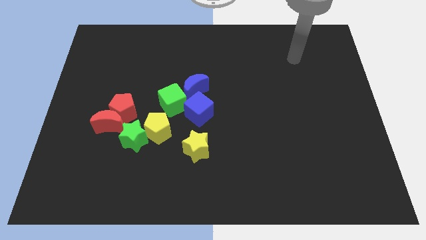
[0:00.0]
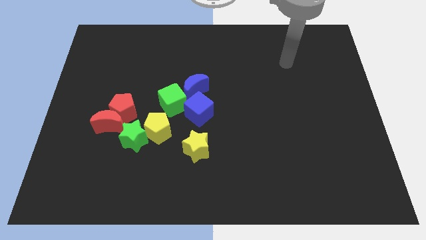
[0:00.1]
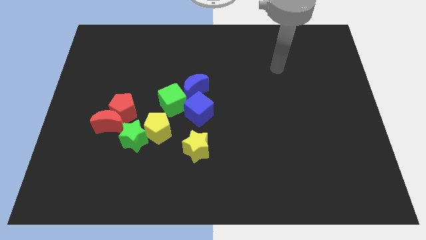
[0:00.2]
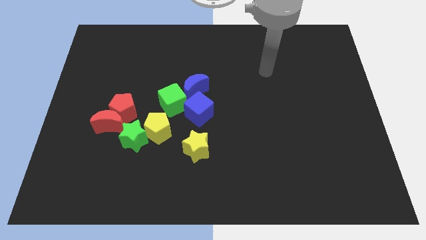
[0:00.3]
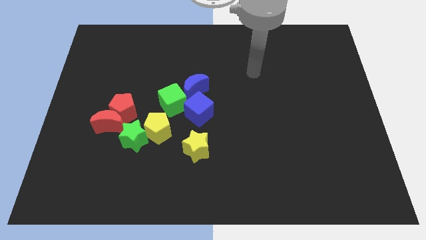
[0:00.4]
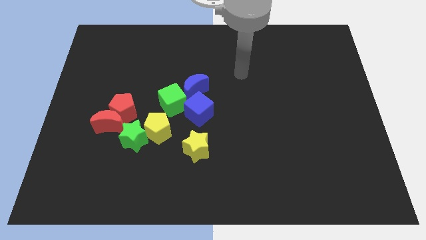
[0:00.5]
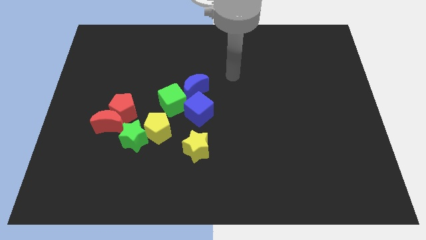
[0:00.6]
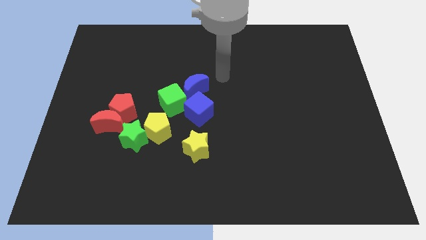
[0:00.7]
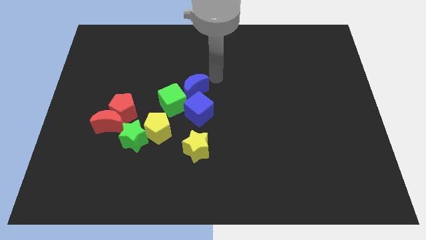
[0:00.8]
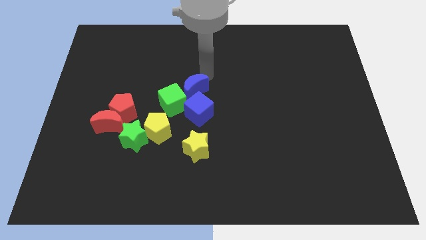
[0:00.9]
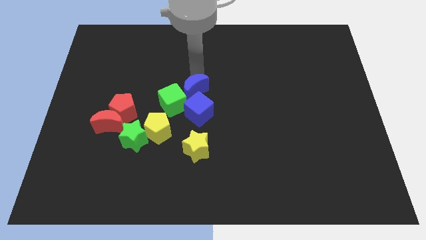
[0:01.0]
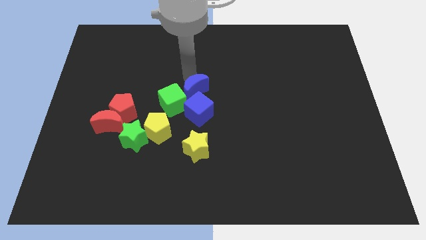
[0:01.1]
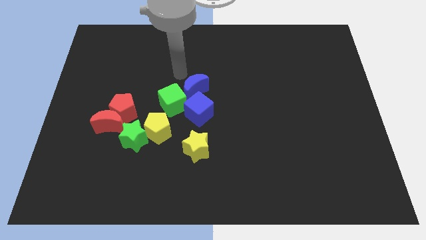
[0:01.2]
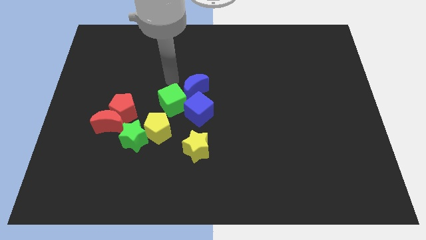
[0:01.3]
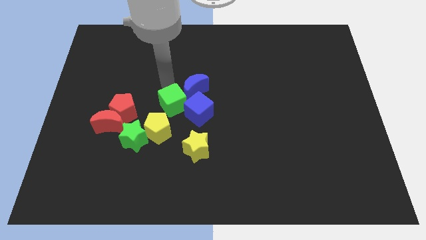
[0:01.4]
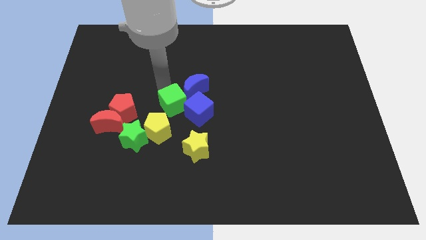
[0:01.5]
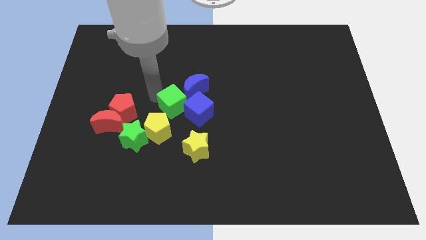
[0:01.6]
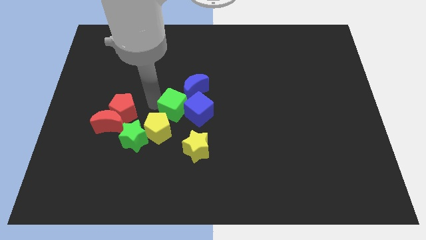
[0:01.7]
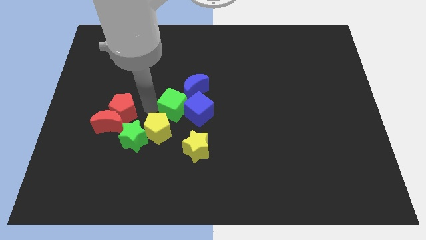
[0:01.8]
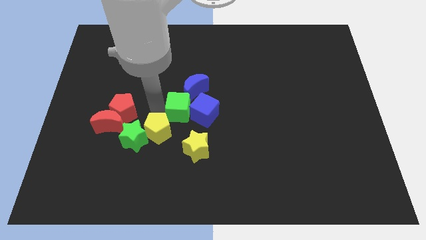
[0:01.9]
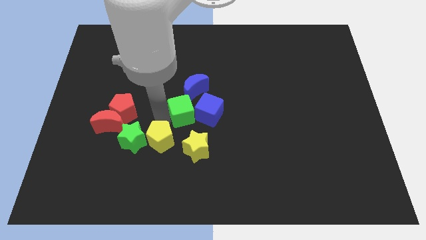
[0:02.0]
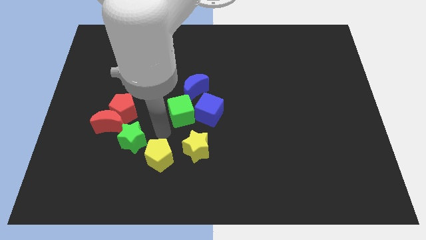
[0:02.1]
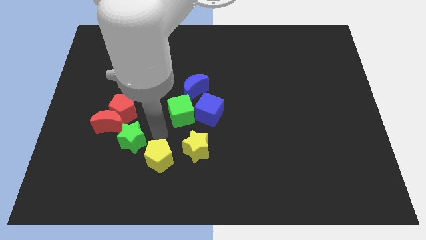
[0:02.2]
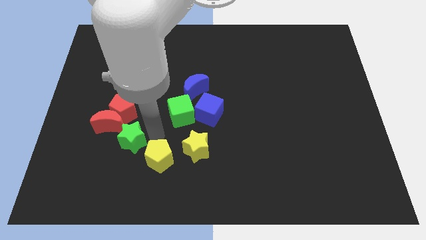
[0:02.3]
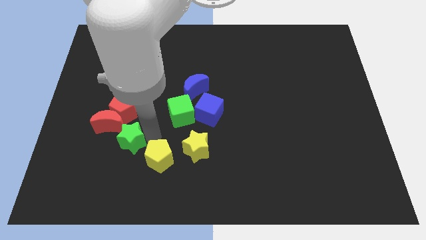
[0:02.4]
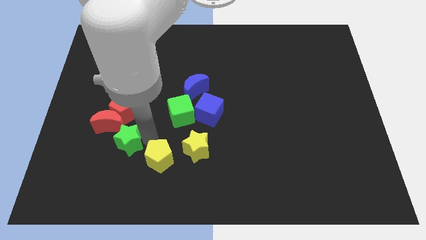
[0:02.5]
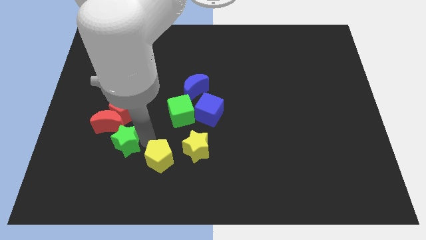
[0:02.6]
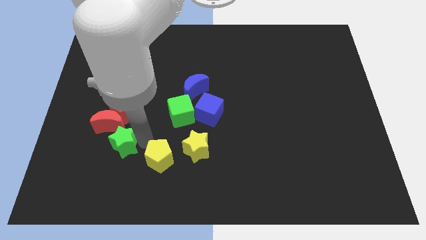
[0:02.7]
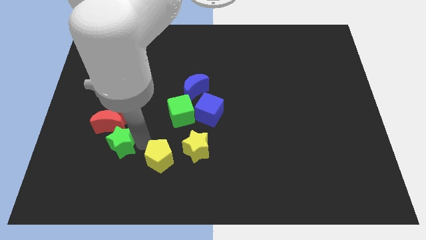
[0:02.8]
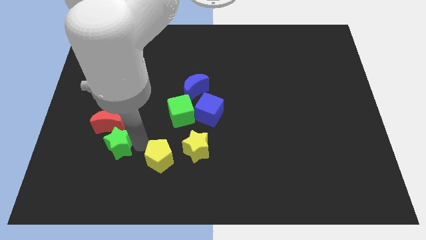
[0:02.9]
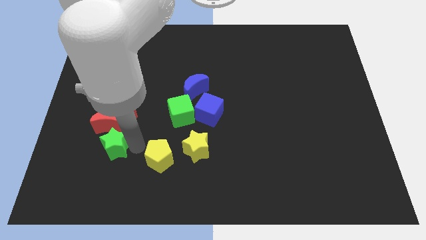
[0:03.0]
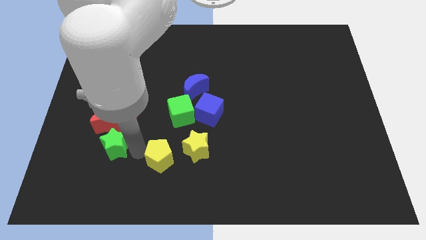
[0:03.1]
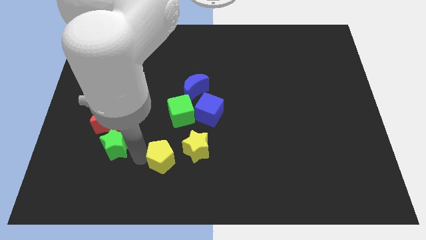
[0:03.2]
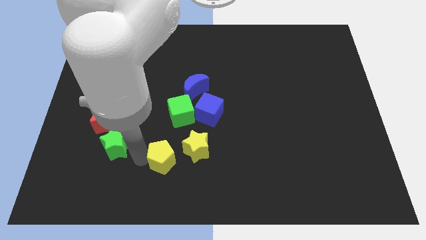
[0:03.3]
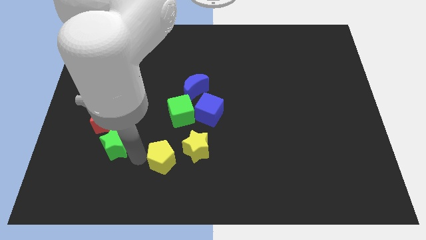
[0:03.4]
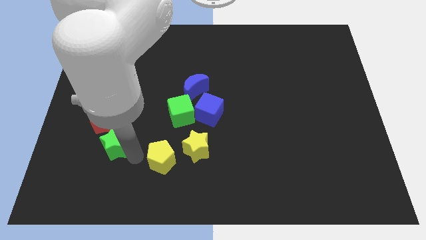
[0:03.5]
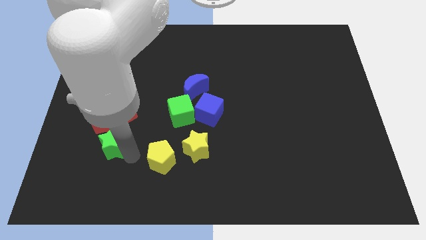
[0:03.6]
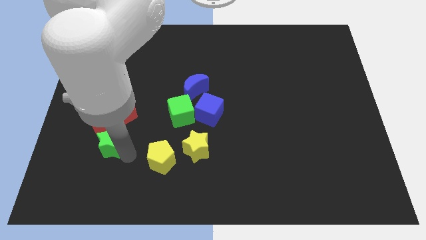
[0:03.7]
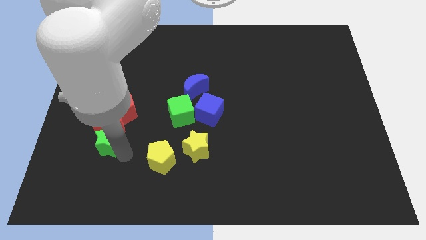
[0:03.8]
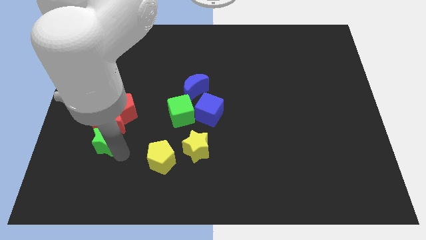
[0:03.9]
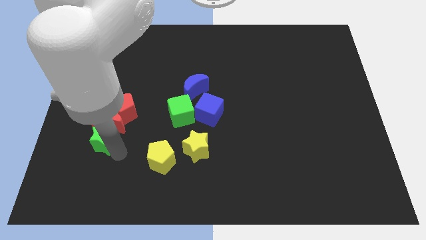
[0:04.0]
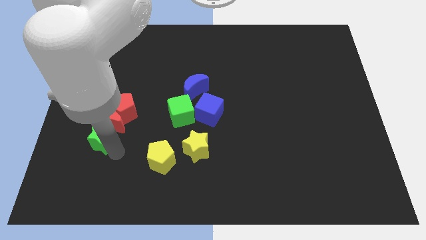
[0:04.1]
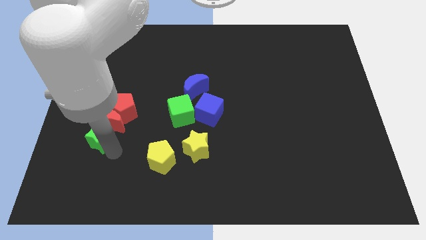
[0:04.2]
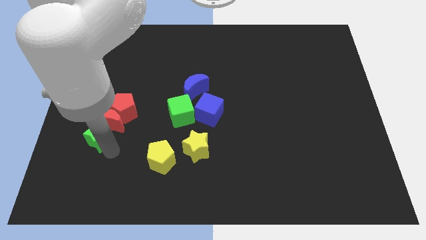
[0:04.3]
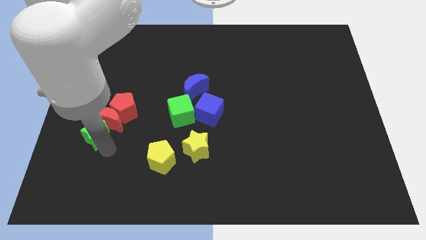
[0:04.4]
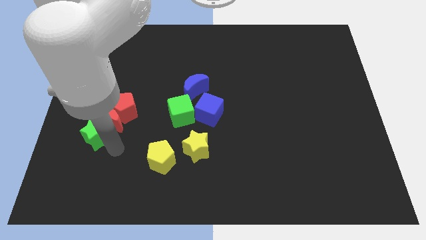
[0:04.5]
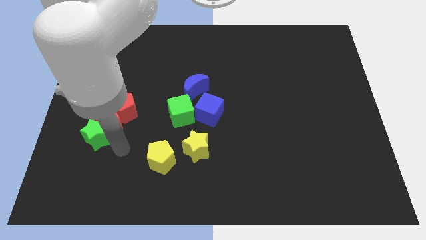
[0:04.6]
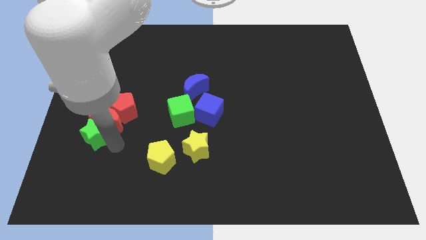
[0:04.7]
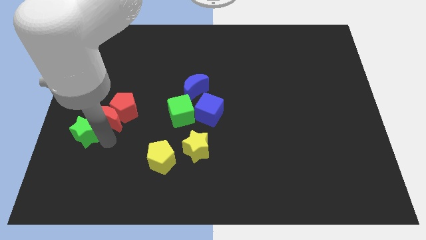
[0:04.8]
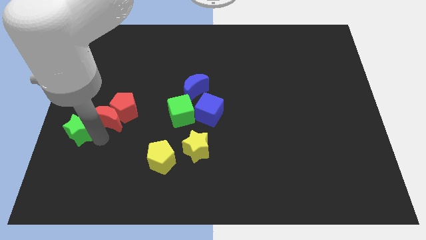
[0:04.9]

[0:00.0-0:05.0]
put the green star to the center left

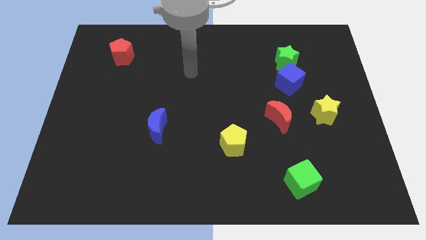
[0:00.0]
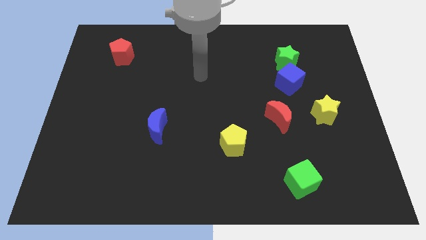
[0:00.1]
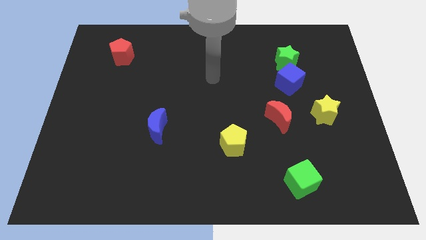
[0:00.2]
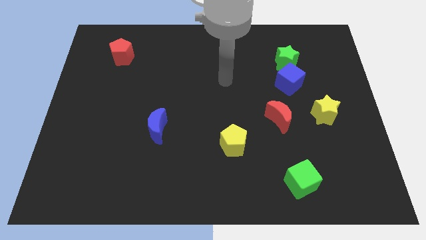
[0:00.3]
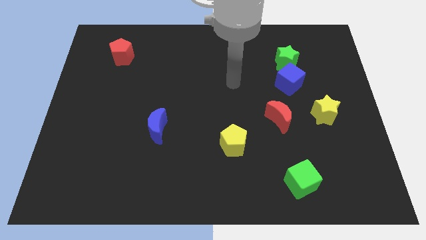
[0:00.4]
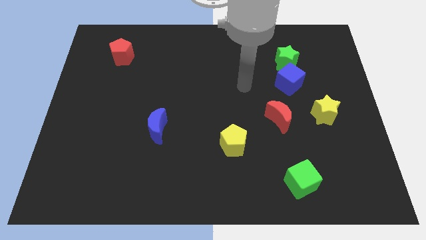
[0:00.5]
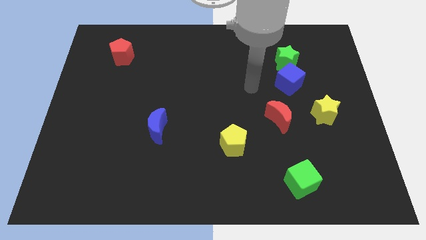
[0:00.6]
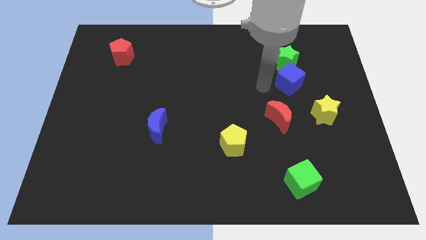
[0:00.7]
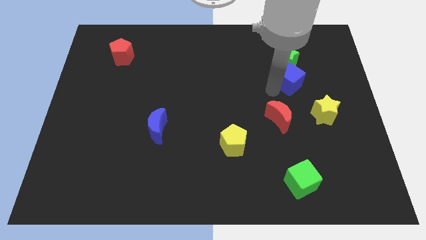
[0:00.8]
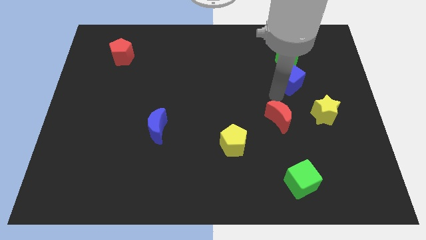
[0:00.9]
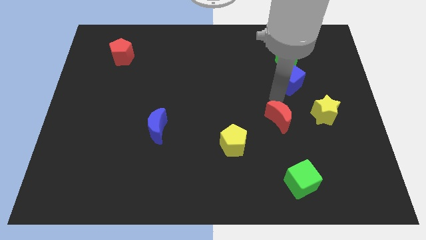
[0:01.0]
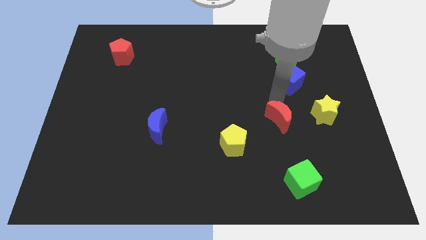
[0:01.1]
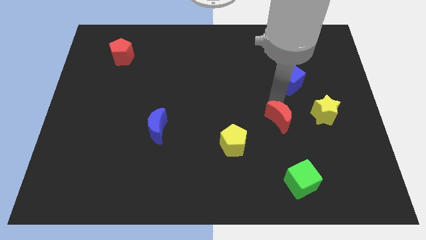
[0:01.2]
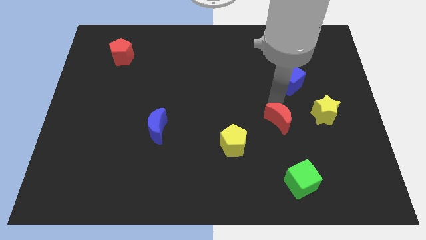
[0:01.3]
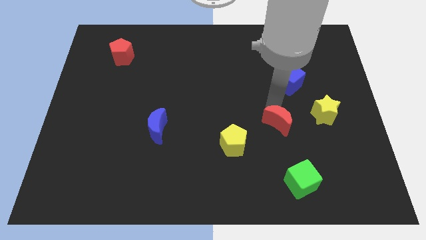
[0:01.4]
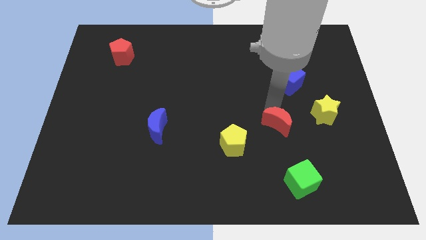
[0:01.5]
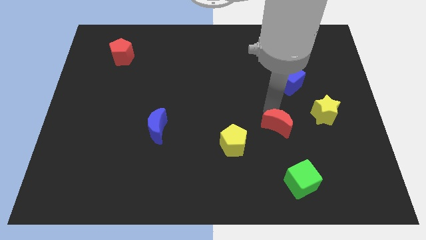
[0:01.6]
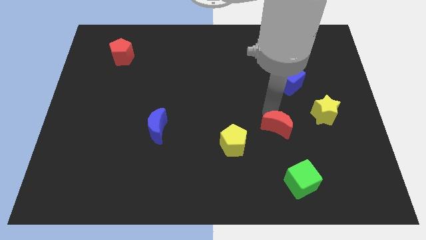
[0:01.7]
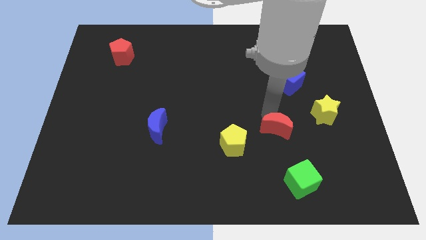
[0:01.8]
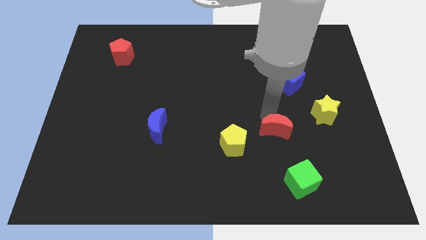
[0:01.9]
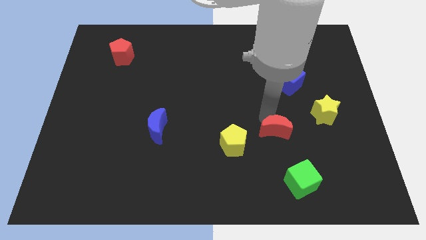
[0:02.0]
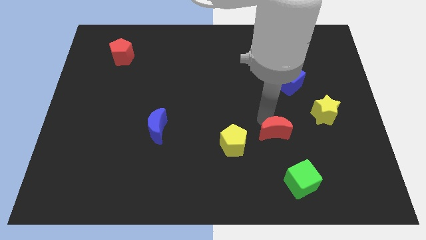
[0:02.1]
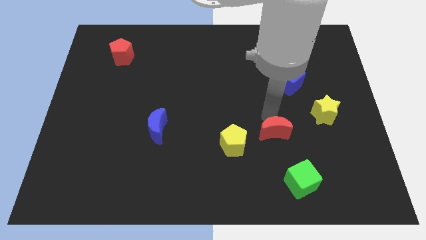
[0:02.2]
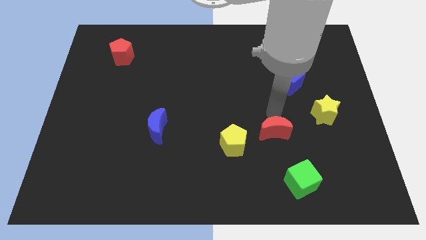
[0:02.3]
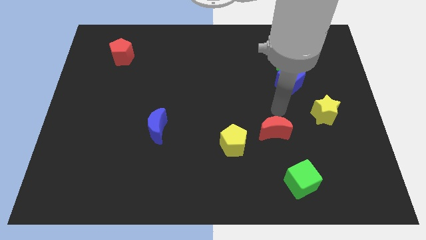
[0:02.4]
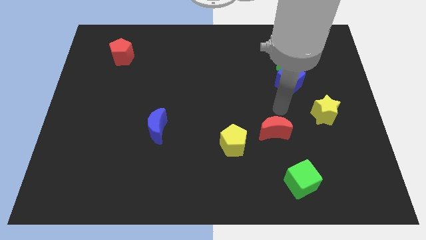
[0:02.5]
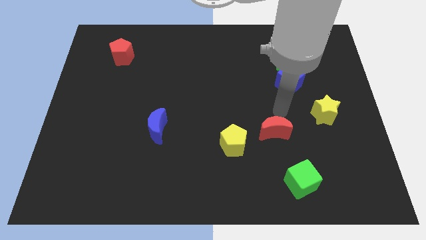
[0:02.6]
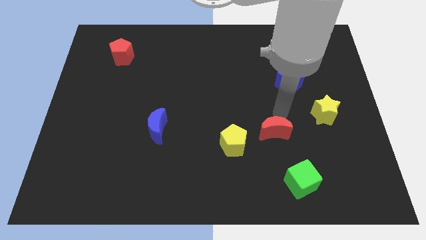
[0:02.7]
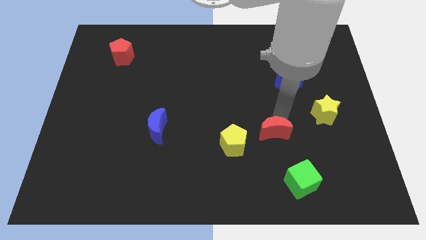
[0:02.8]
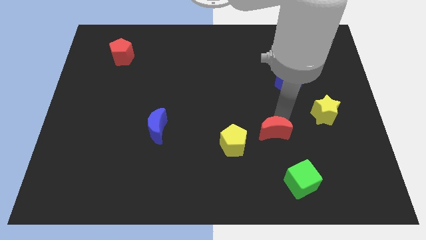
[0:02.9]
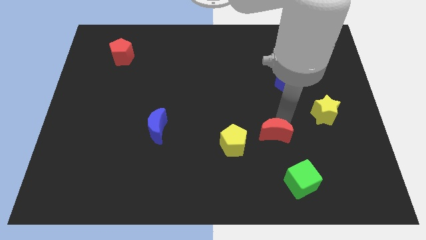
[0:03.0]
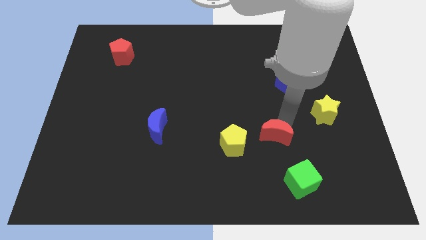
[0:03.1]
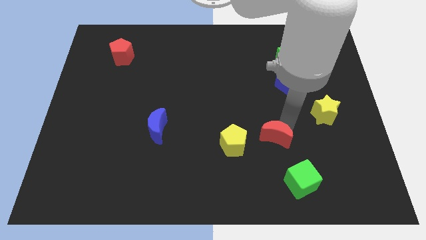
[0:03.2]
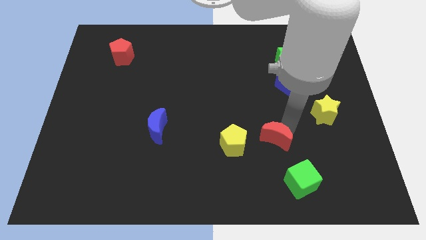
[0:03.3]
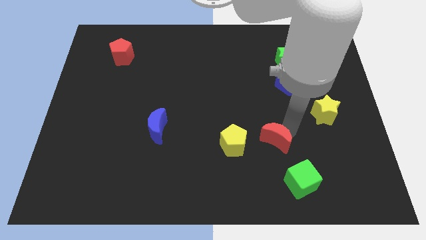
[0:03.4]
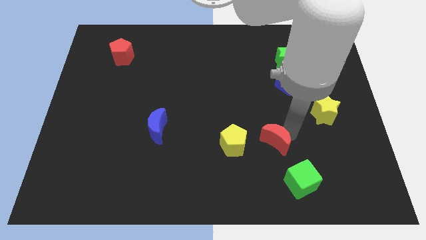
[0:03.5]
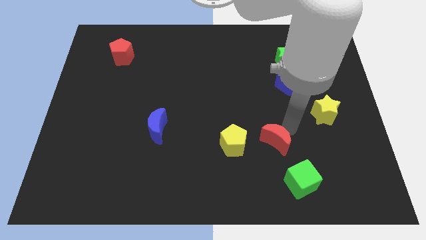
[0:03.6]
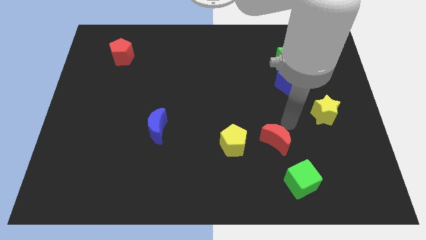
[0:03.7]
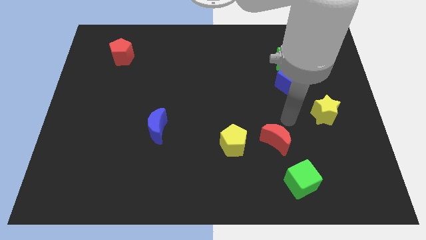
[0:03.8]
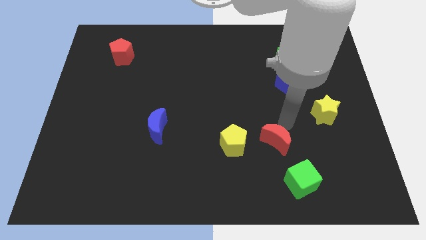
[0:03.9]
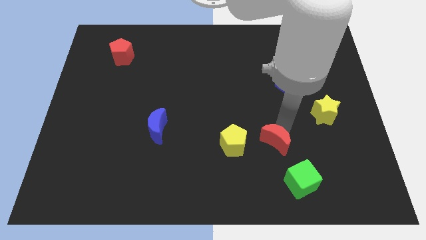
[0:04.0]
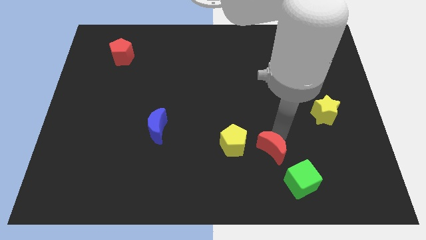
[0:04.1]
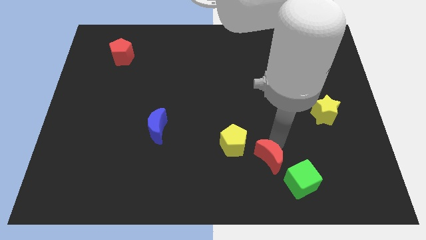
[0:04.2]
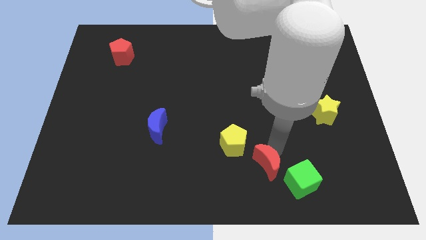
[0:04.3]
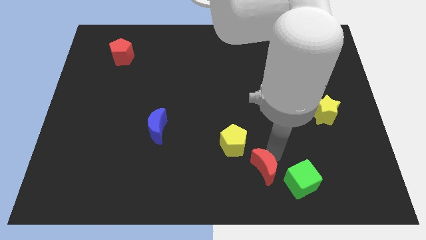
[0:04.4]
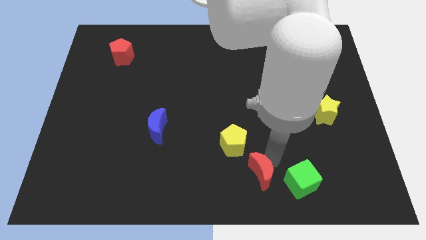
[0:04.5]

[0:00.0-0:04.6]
put the red moon to the bottom side
